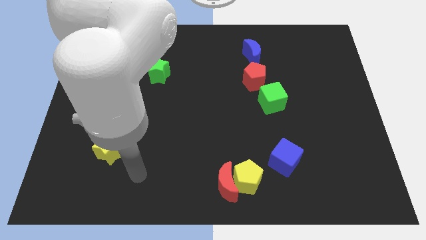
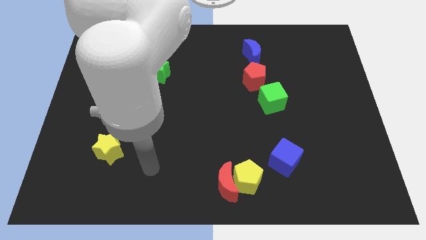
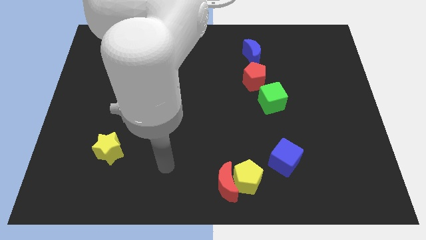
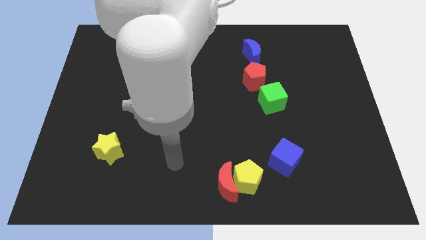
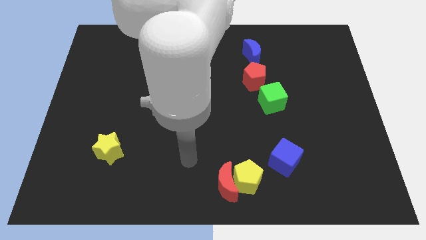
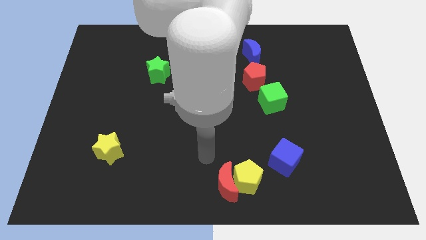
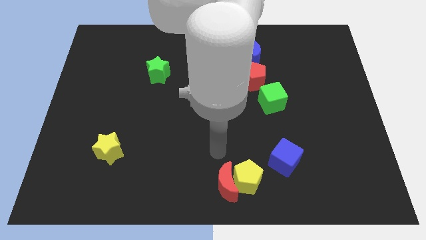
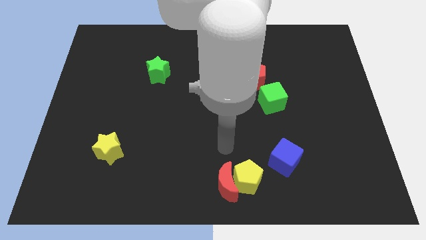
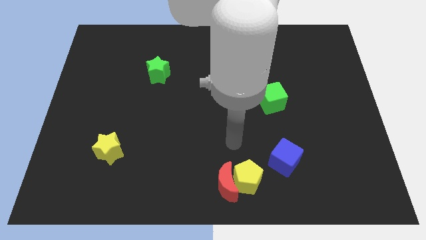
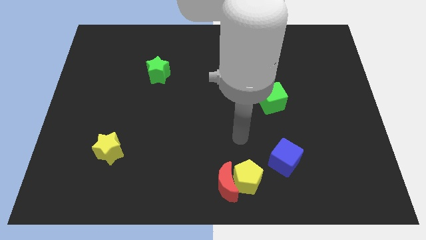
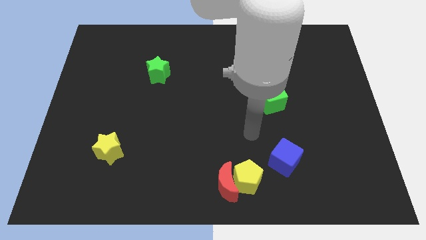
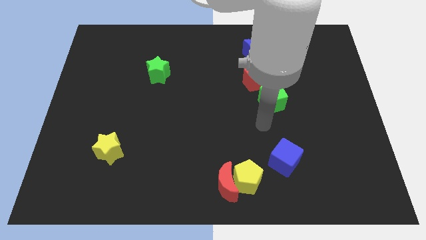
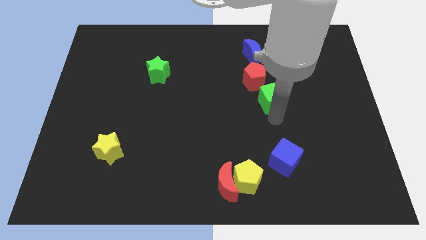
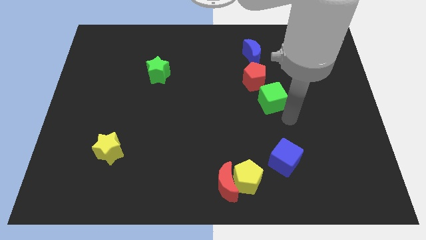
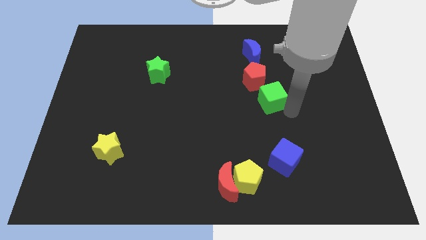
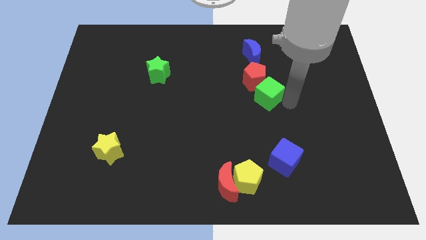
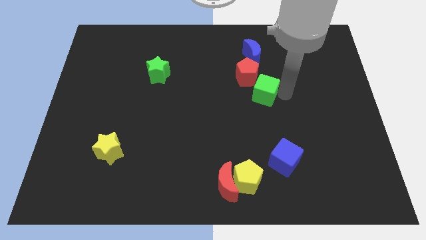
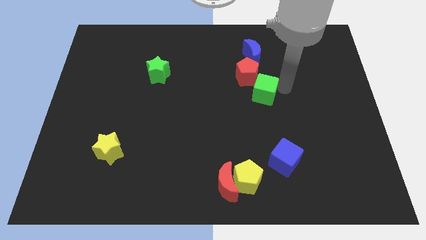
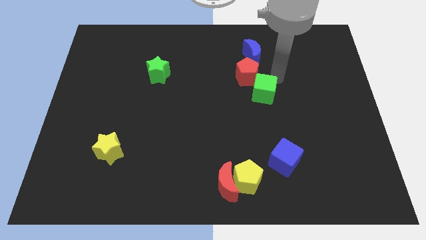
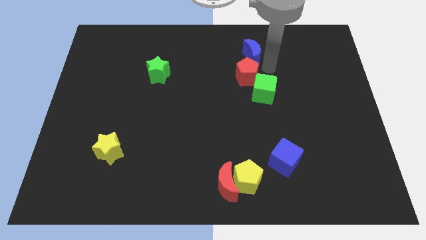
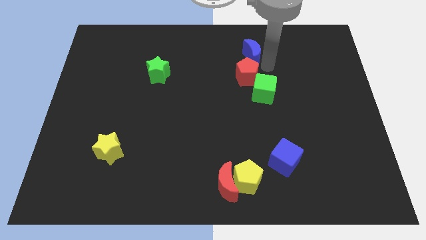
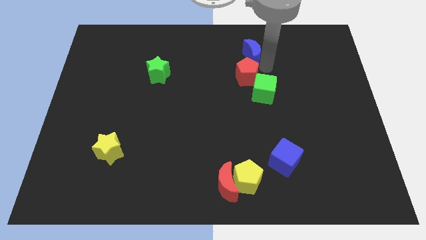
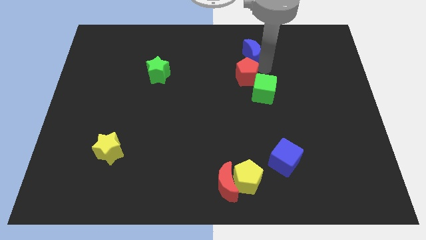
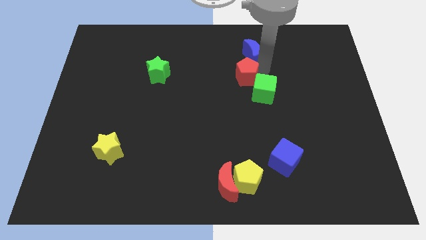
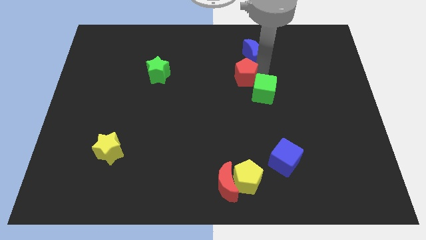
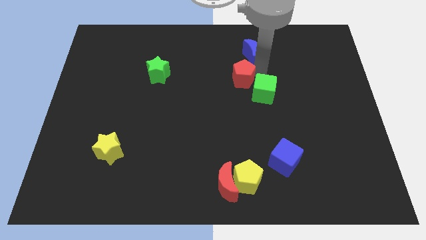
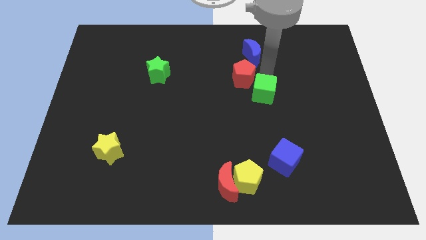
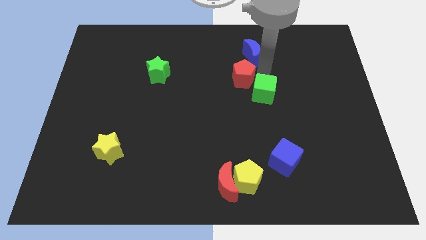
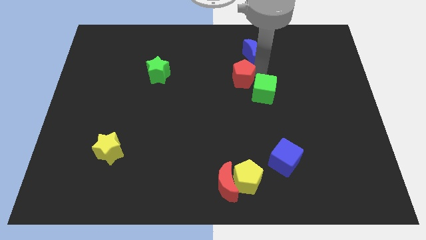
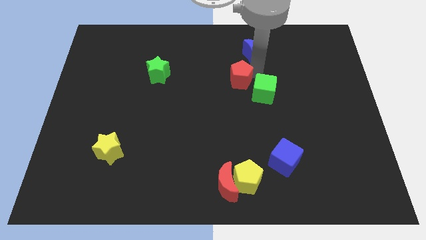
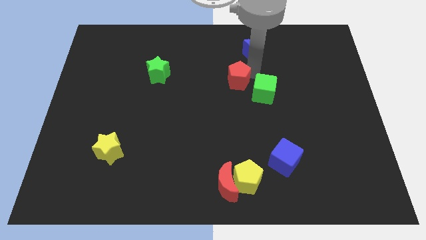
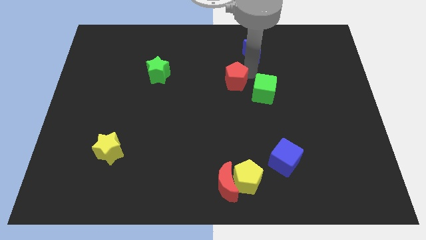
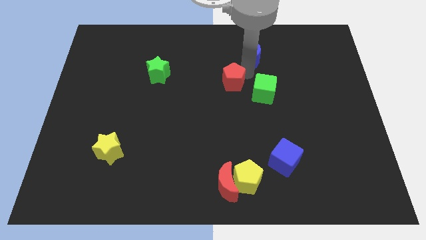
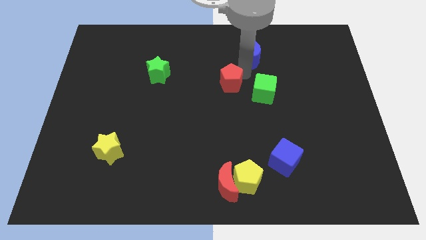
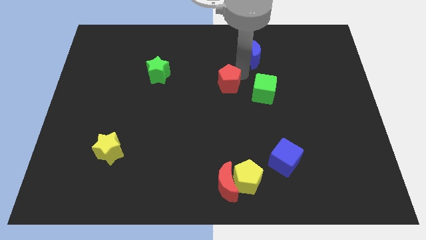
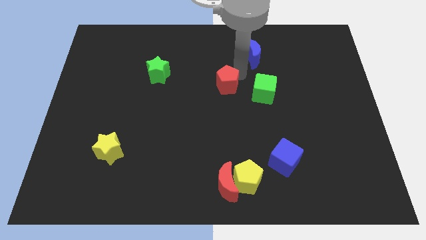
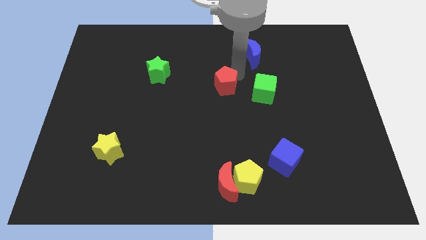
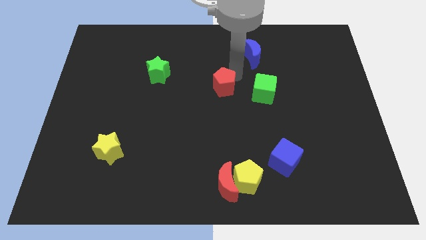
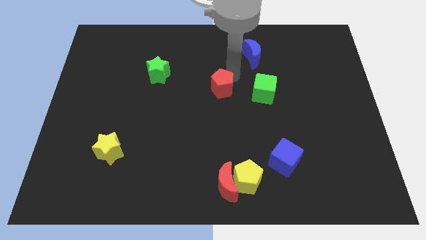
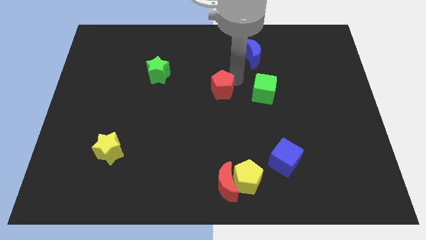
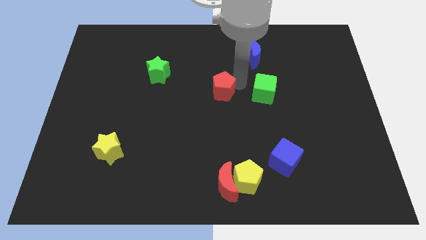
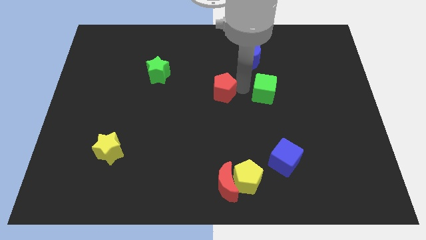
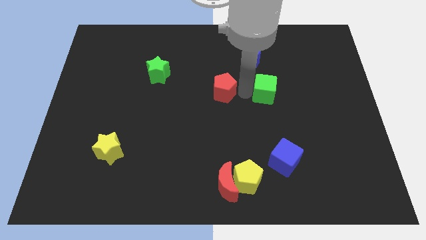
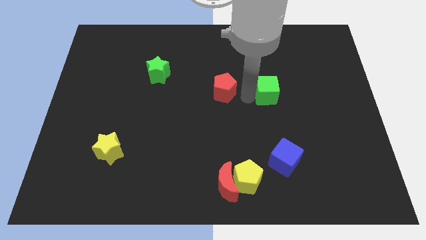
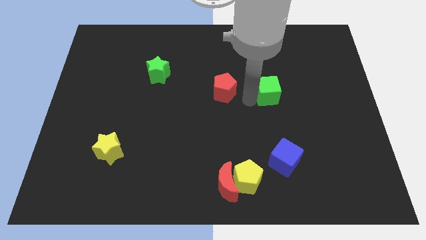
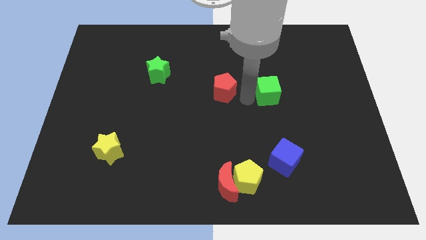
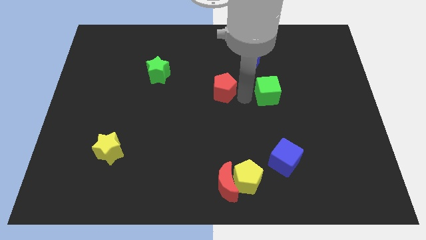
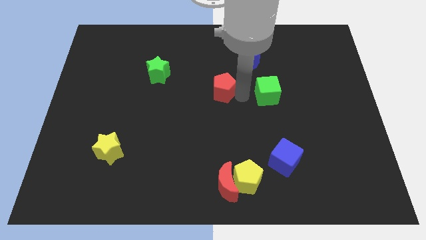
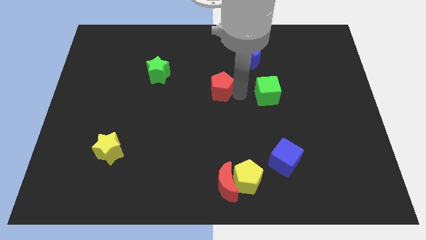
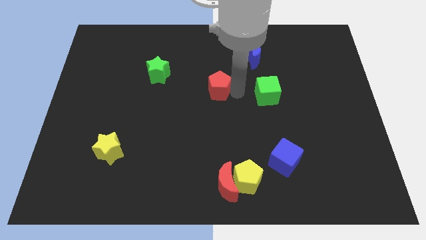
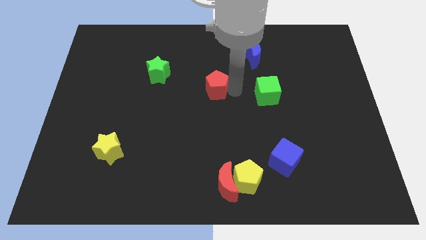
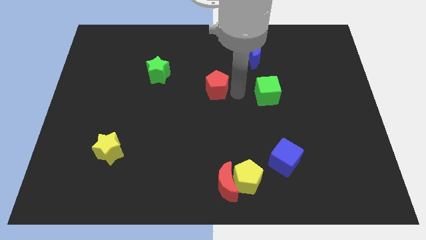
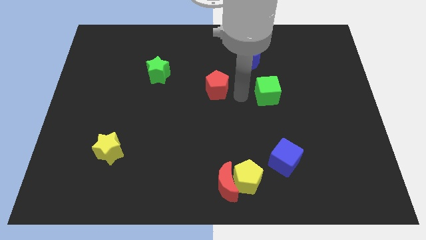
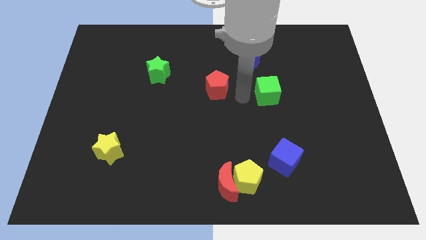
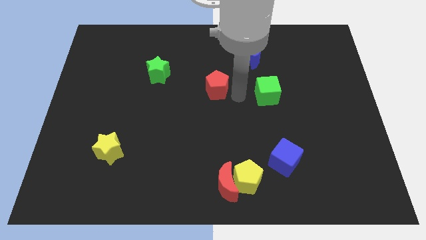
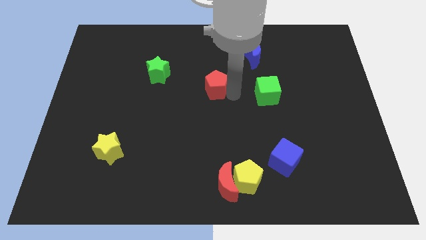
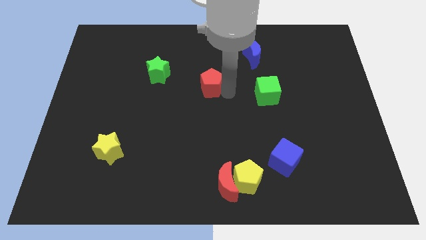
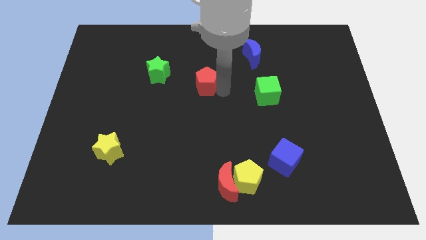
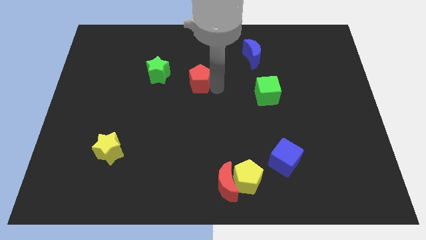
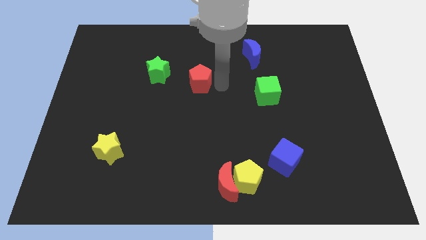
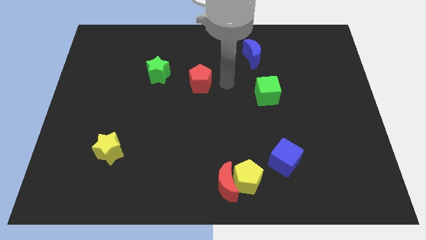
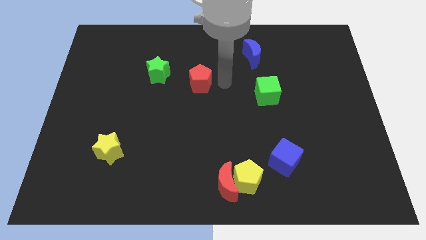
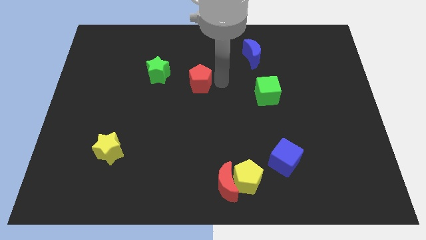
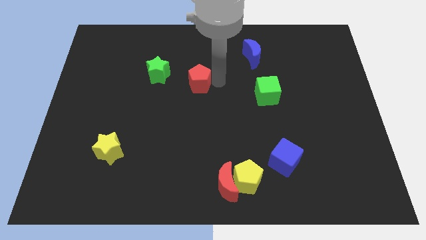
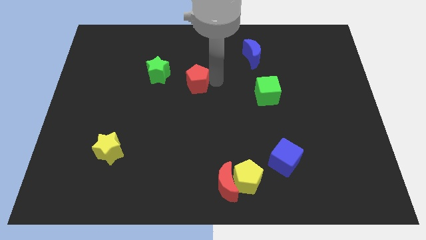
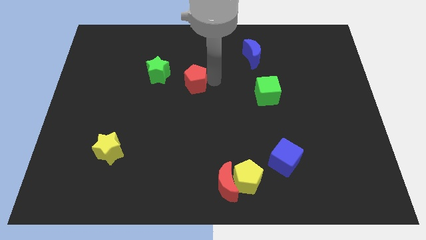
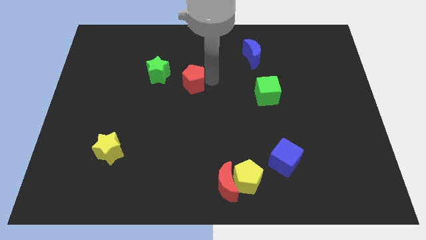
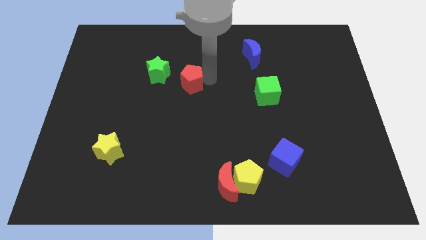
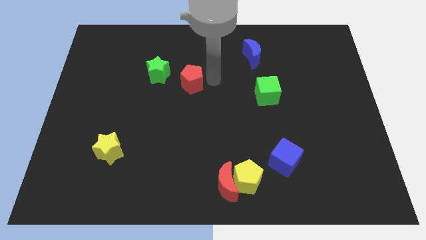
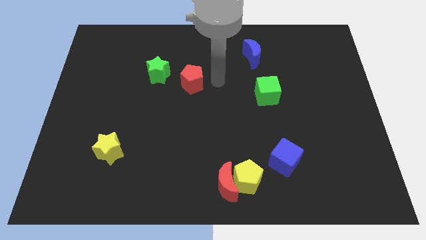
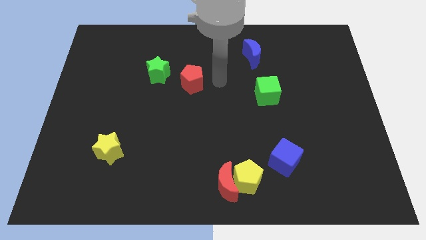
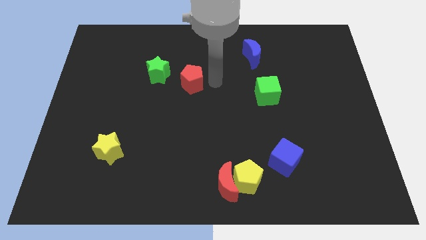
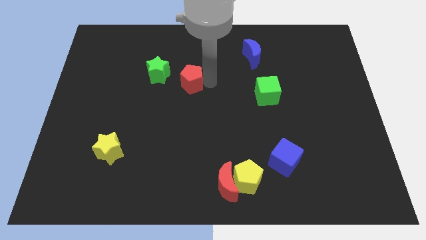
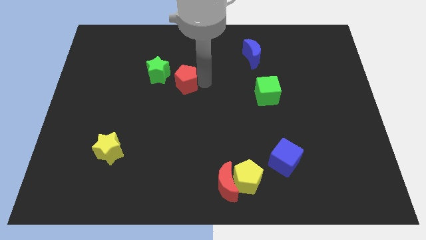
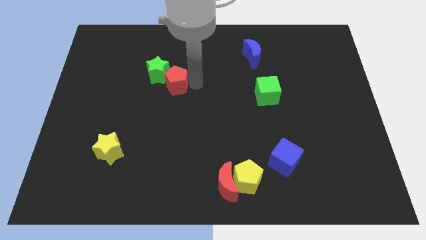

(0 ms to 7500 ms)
put the red pentagon to the green star

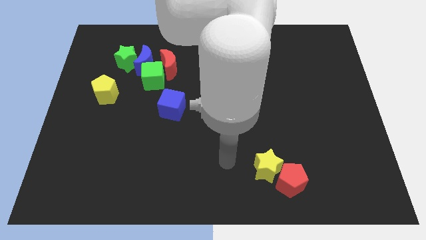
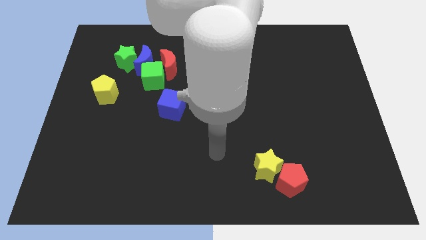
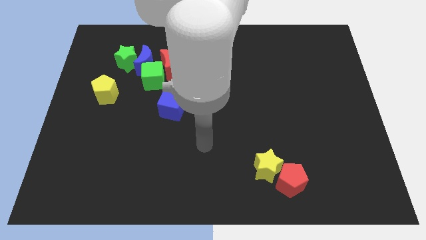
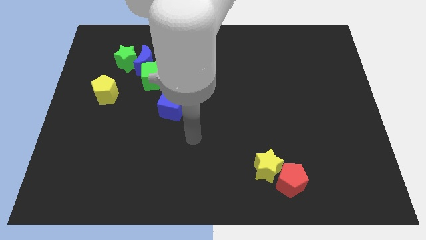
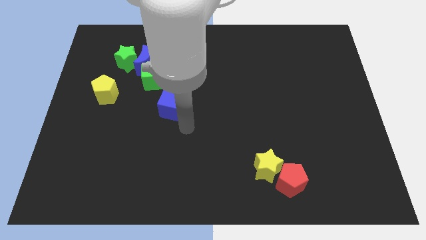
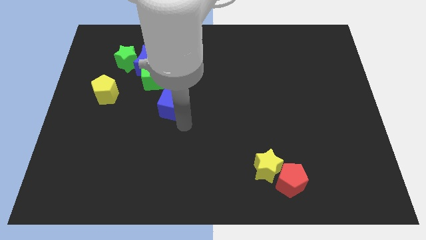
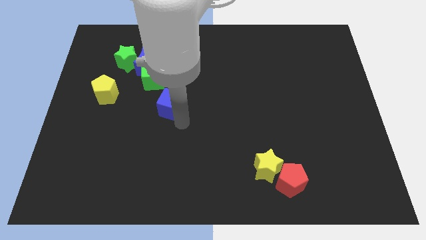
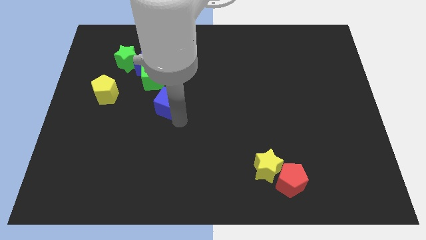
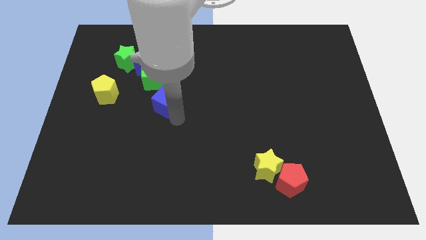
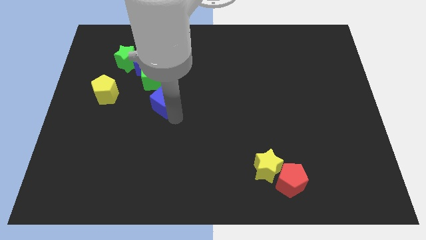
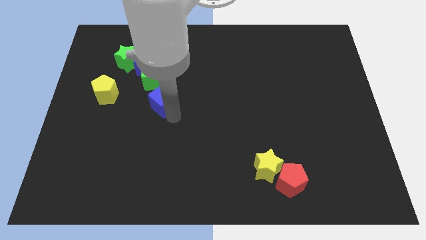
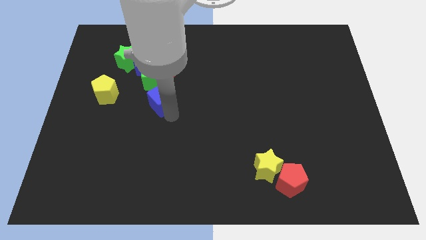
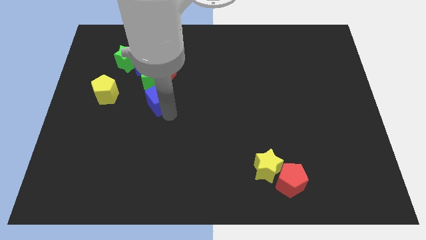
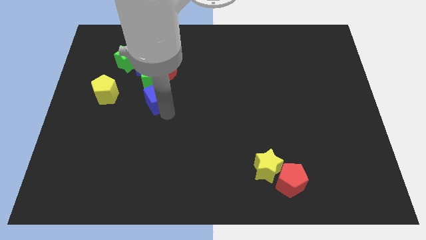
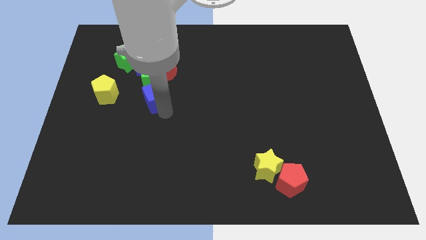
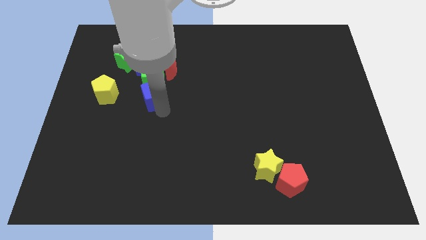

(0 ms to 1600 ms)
push the blue cube towards the green cube
